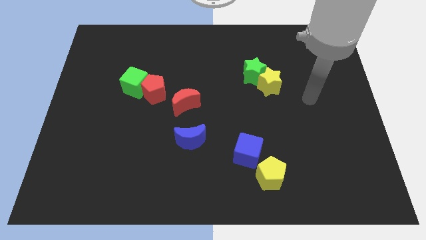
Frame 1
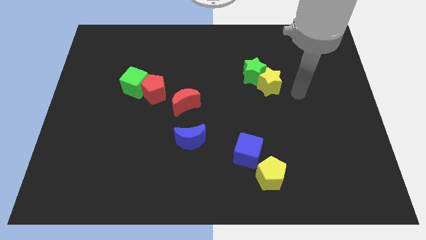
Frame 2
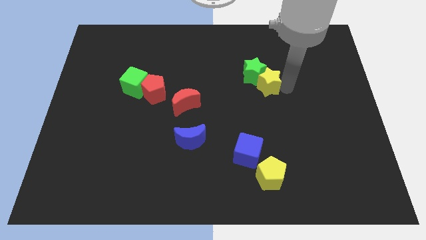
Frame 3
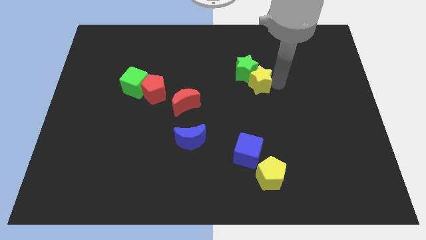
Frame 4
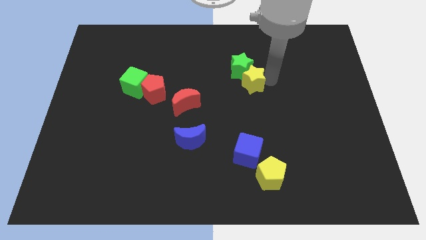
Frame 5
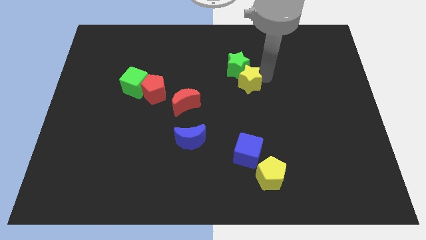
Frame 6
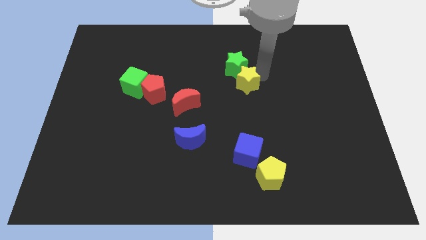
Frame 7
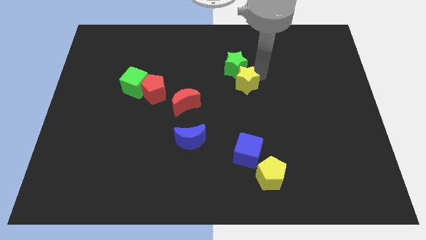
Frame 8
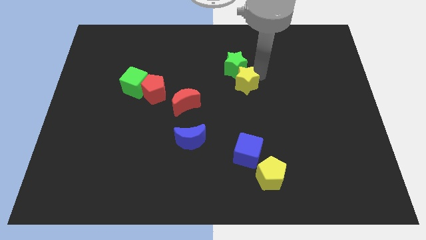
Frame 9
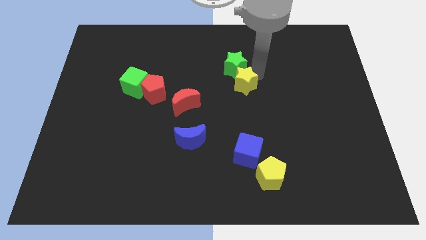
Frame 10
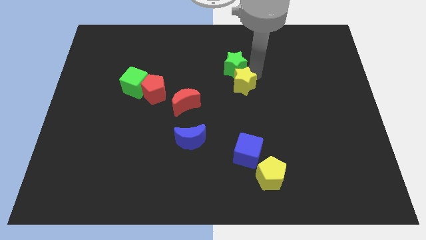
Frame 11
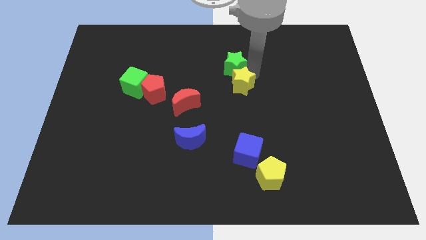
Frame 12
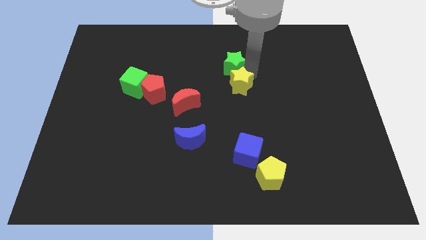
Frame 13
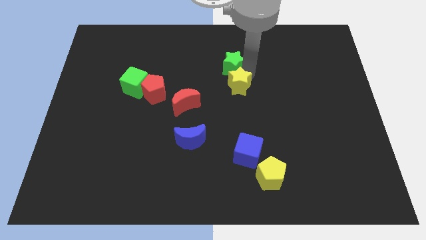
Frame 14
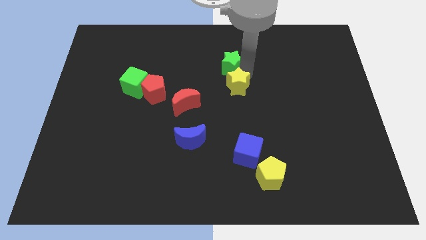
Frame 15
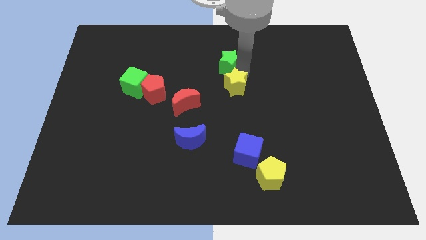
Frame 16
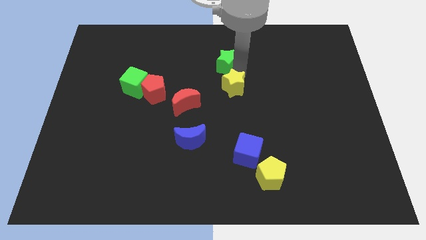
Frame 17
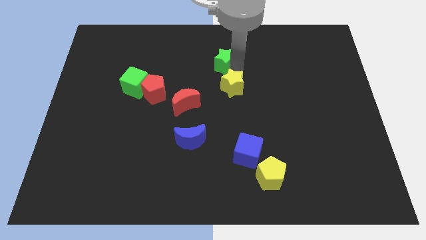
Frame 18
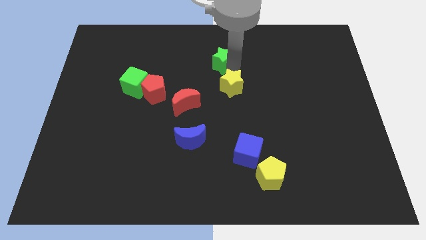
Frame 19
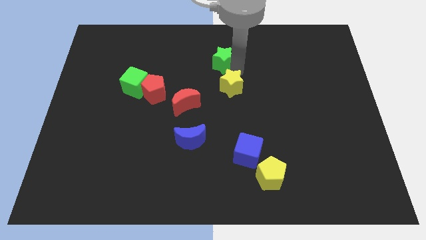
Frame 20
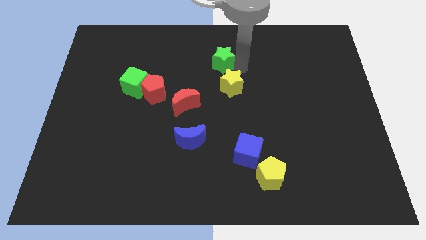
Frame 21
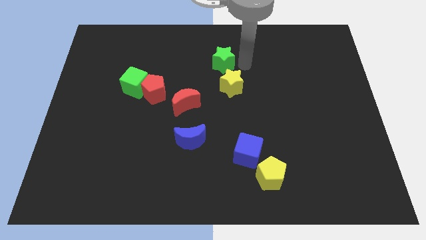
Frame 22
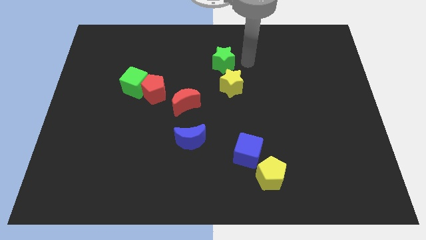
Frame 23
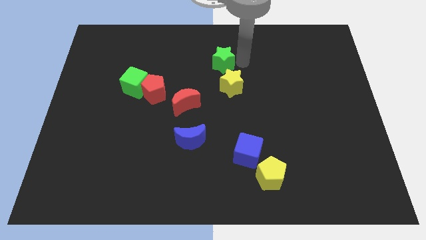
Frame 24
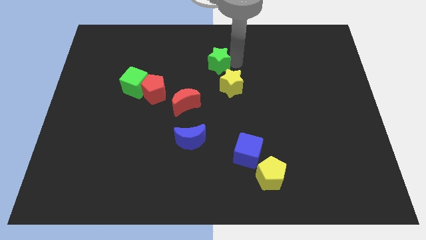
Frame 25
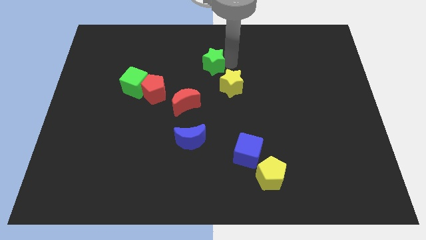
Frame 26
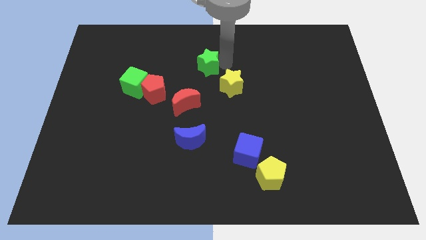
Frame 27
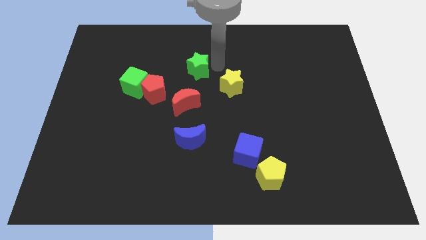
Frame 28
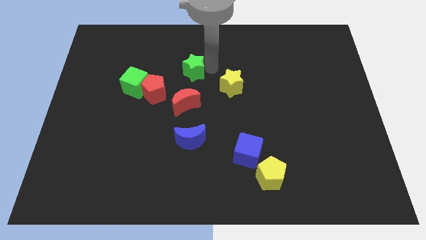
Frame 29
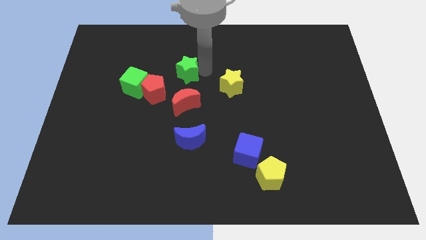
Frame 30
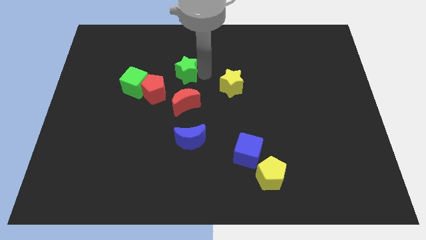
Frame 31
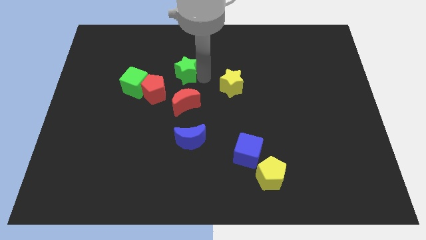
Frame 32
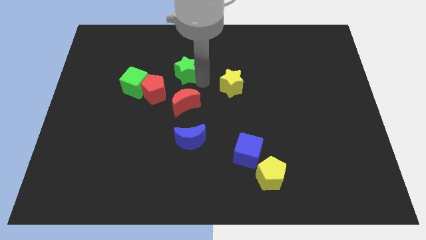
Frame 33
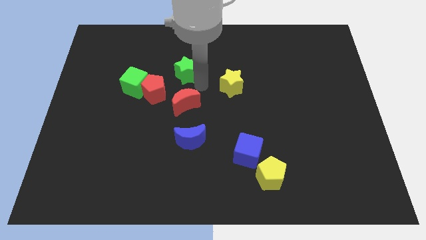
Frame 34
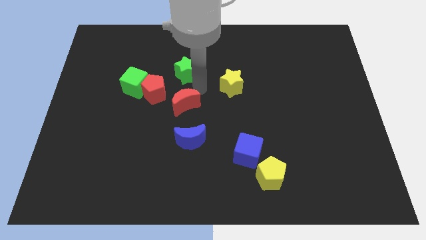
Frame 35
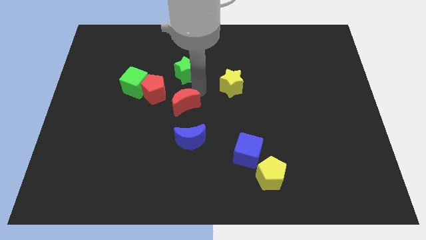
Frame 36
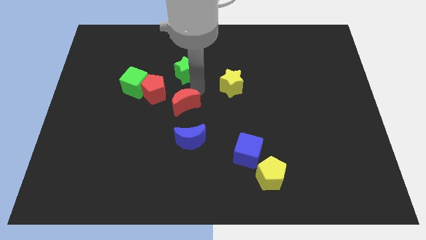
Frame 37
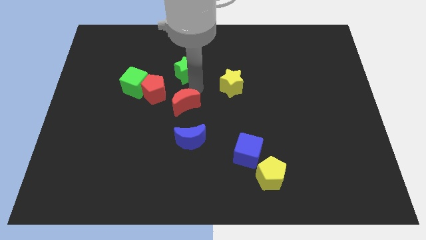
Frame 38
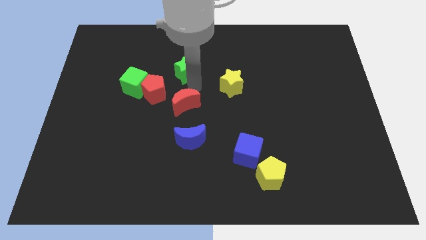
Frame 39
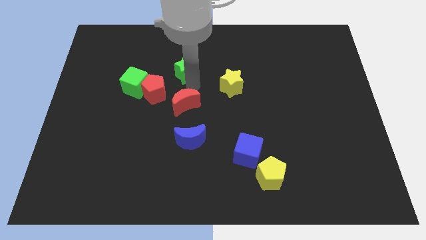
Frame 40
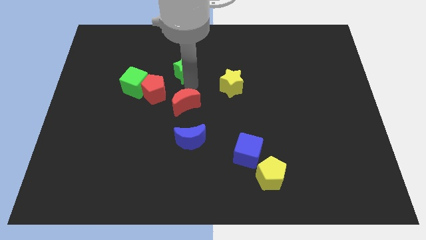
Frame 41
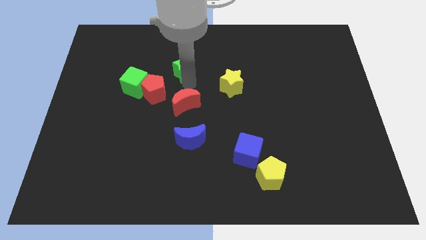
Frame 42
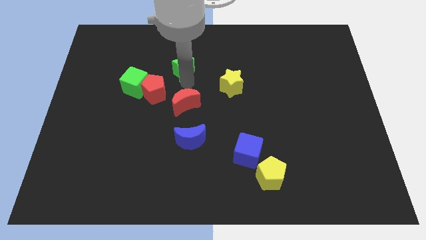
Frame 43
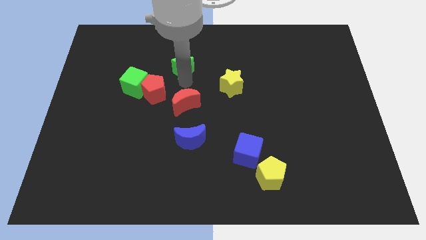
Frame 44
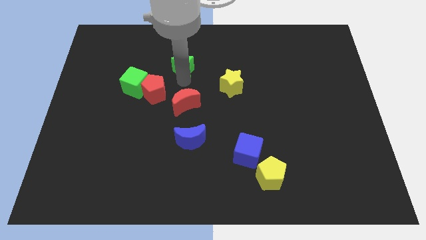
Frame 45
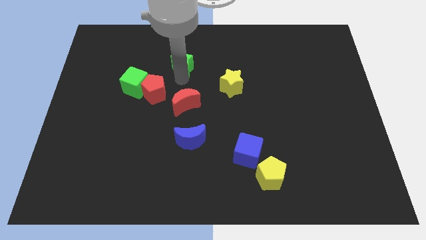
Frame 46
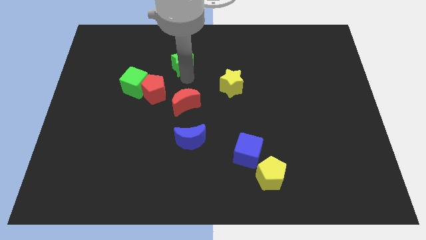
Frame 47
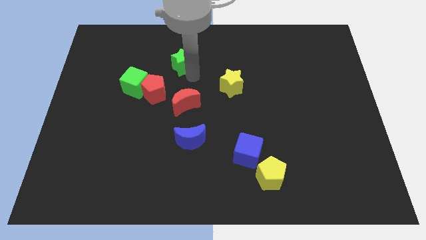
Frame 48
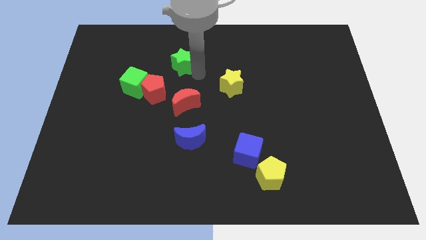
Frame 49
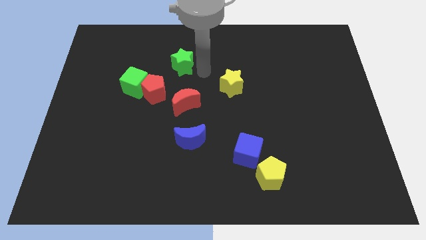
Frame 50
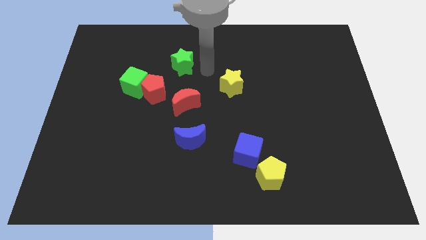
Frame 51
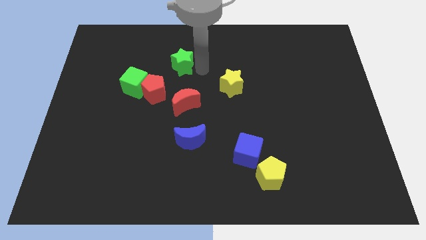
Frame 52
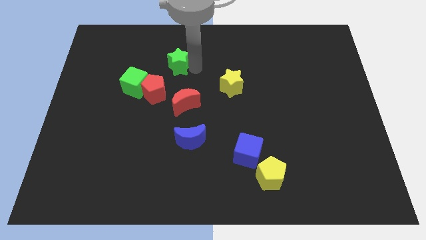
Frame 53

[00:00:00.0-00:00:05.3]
slide the green star above the red pentagon

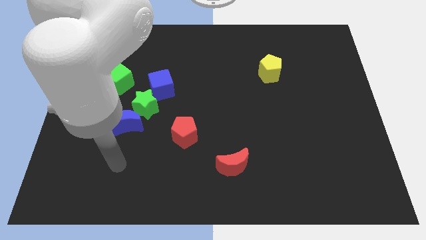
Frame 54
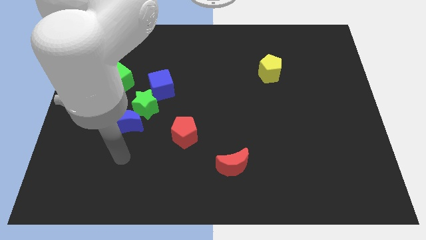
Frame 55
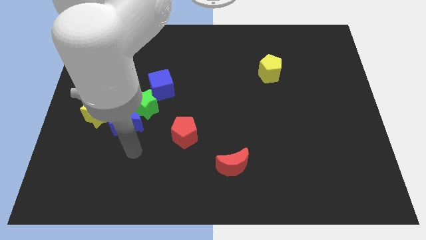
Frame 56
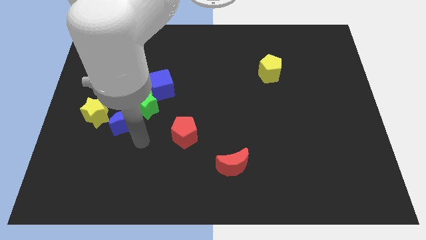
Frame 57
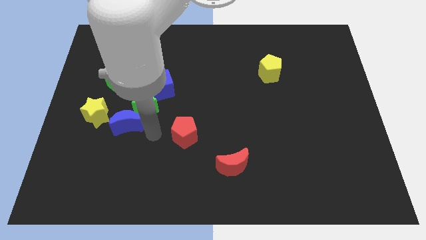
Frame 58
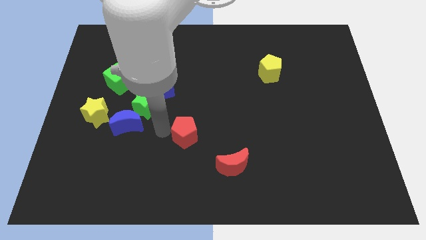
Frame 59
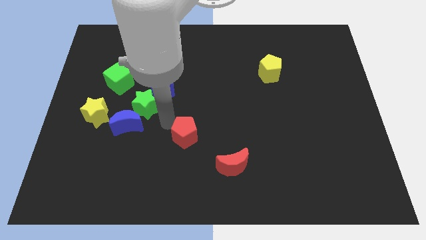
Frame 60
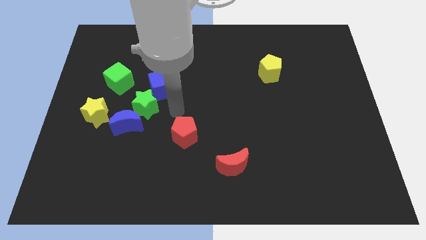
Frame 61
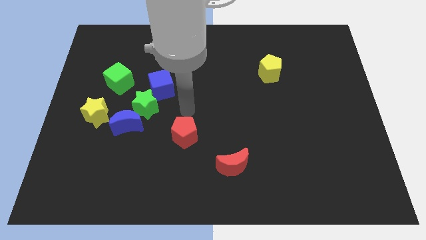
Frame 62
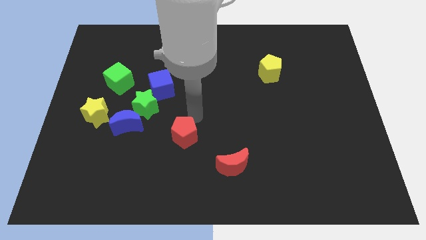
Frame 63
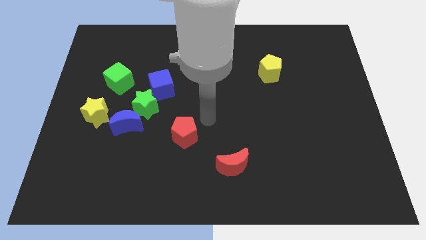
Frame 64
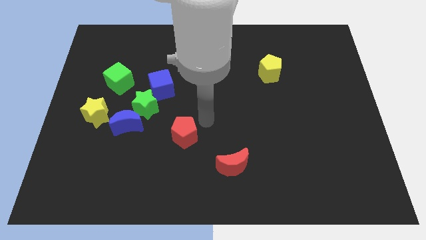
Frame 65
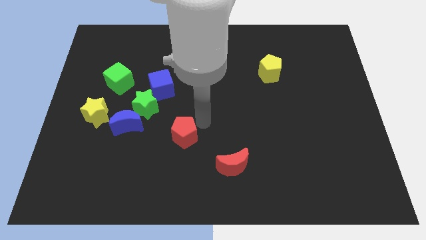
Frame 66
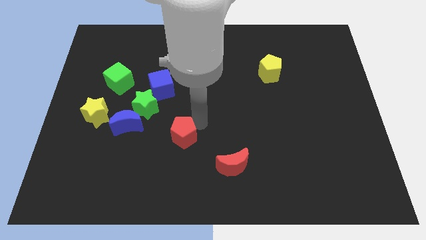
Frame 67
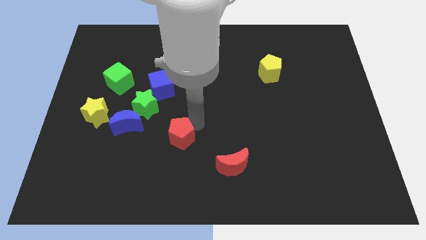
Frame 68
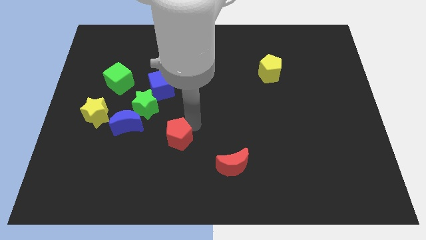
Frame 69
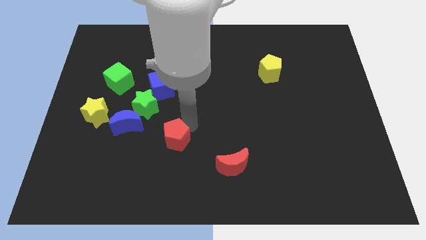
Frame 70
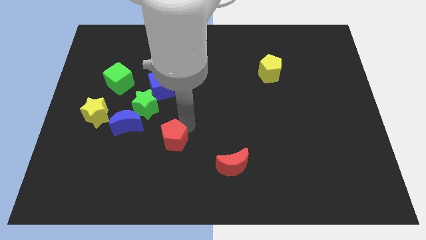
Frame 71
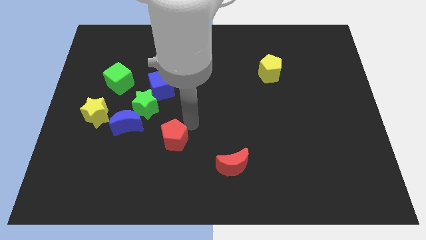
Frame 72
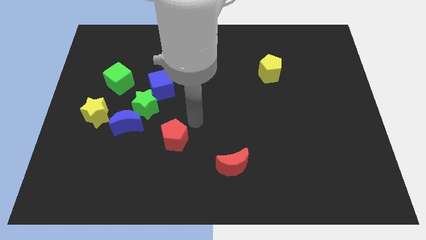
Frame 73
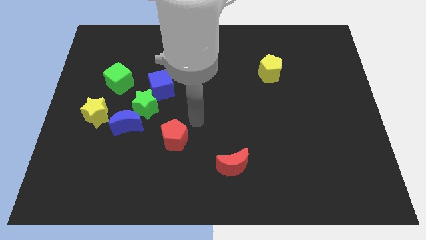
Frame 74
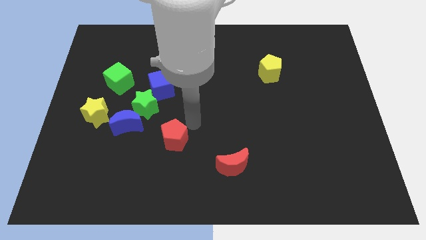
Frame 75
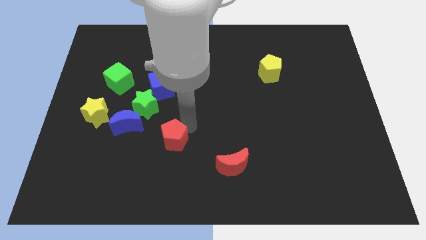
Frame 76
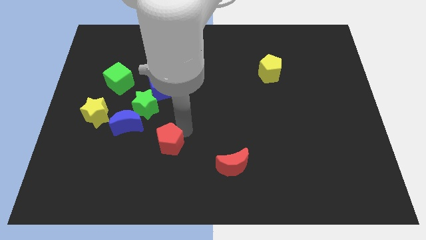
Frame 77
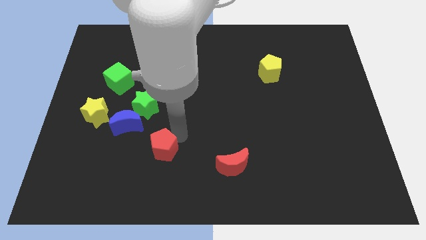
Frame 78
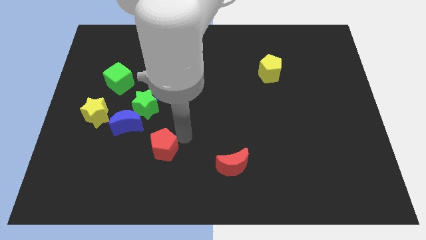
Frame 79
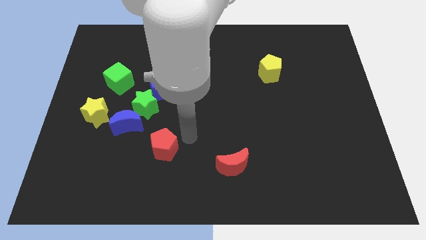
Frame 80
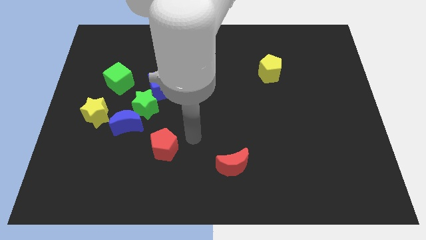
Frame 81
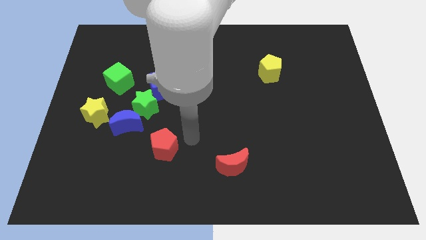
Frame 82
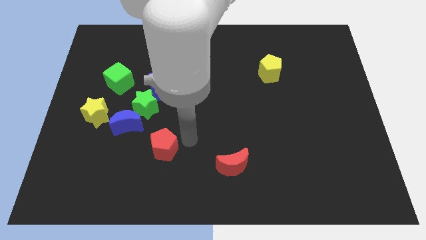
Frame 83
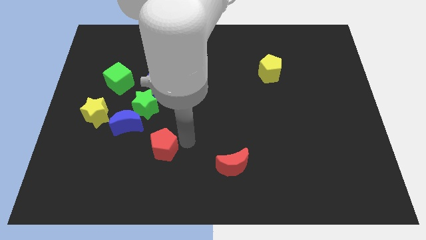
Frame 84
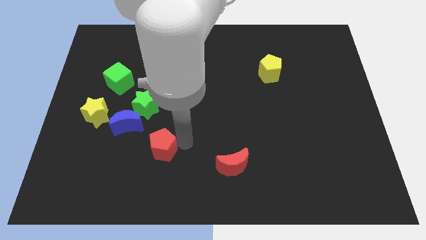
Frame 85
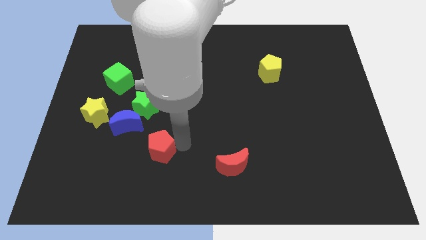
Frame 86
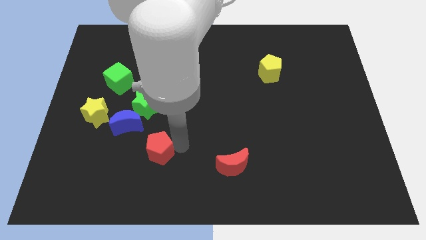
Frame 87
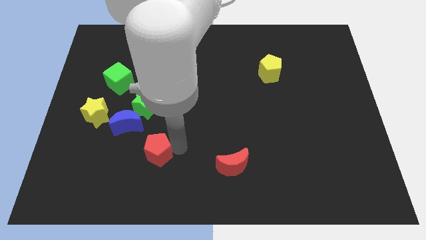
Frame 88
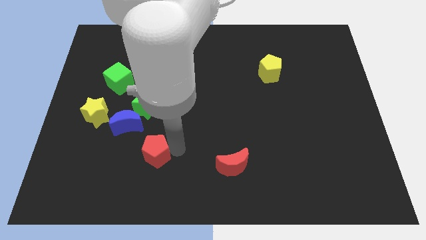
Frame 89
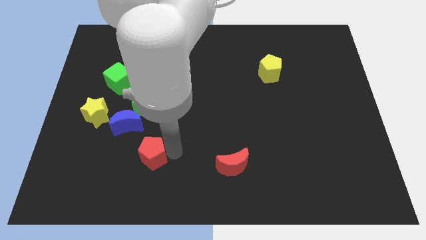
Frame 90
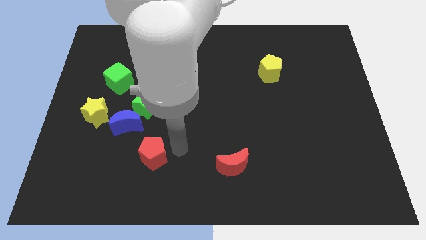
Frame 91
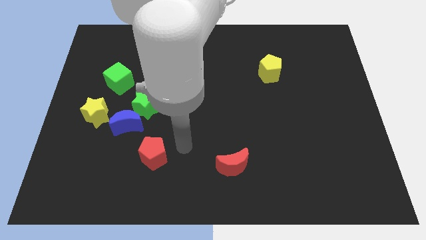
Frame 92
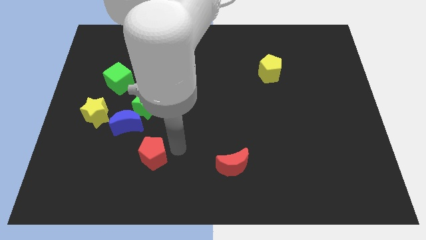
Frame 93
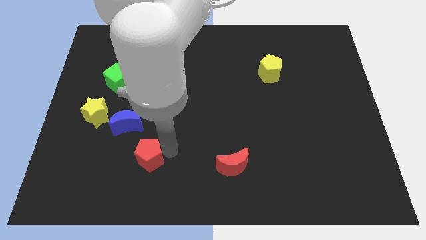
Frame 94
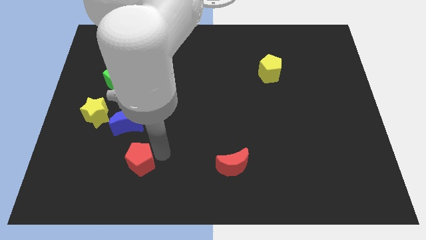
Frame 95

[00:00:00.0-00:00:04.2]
slide the red pentagon to the bottom of the blue moon
